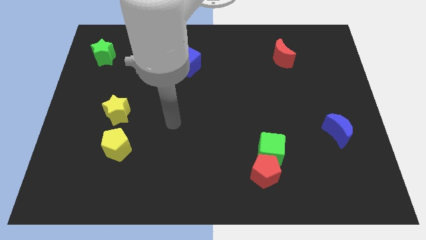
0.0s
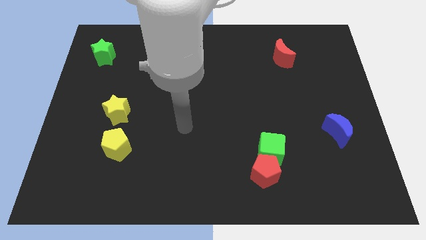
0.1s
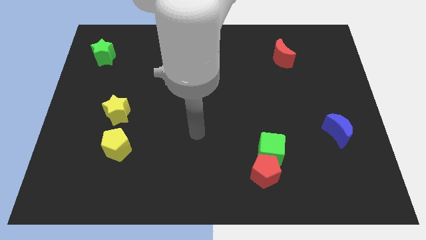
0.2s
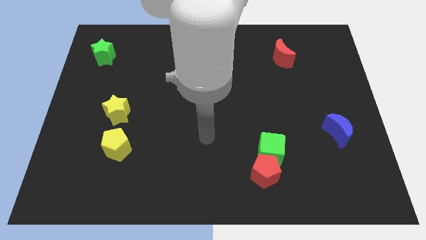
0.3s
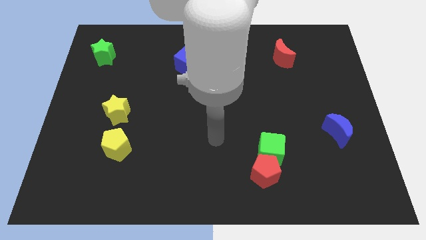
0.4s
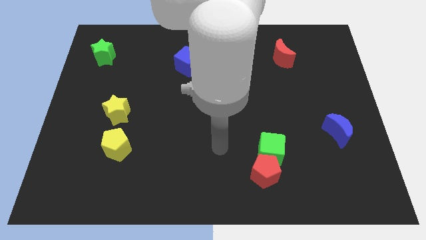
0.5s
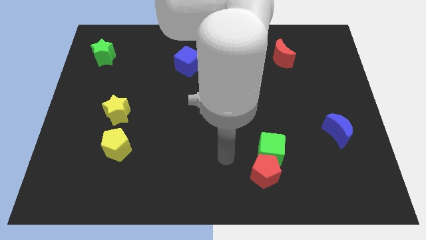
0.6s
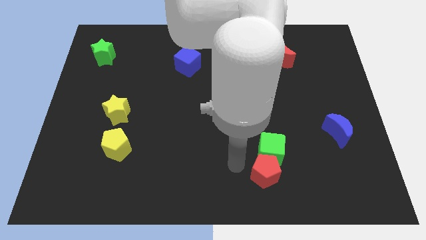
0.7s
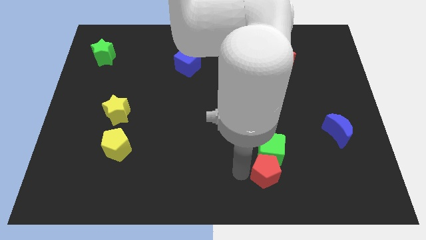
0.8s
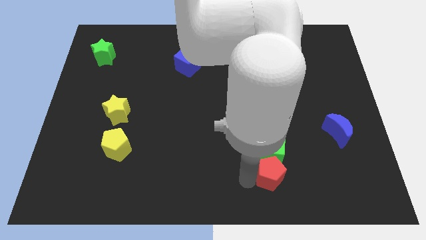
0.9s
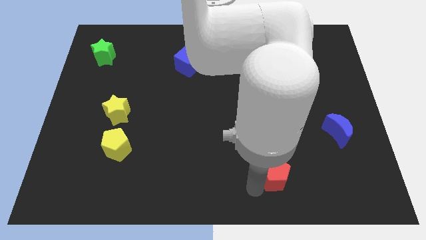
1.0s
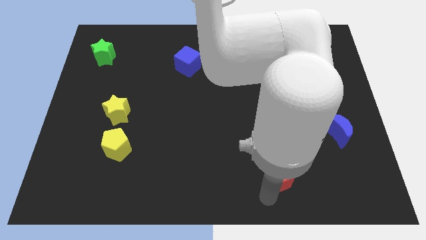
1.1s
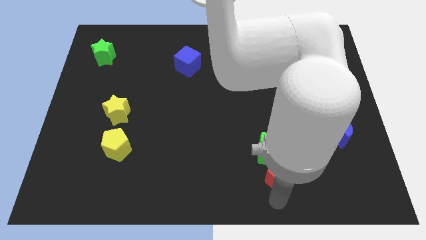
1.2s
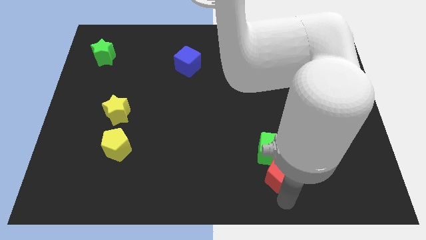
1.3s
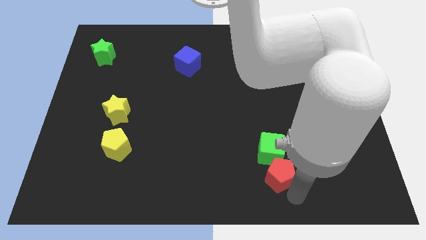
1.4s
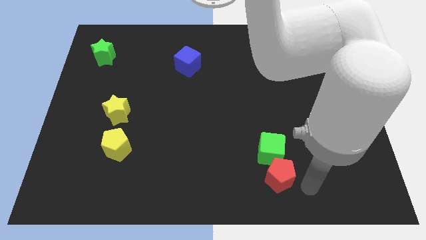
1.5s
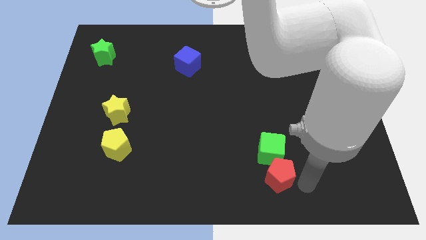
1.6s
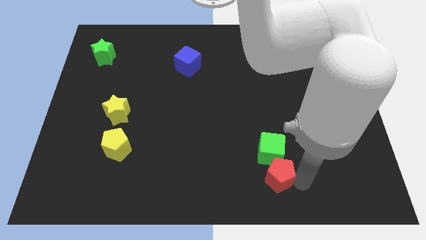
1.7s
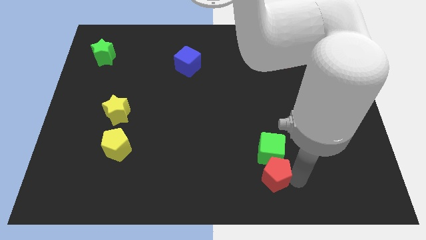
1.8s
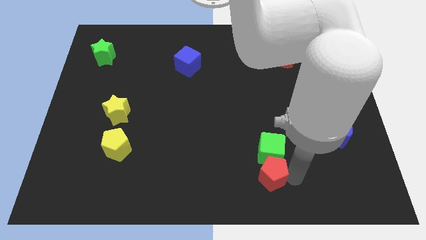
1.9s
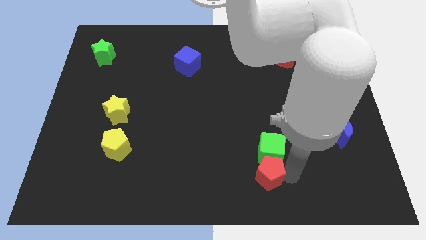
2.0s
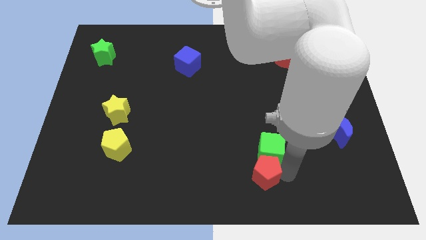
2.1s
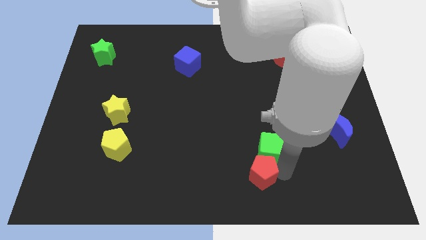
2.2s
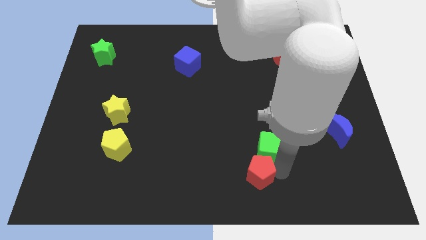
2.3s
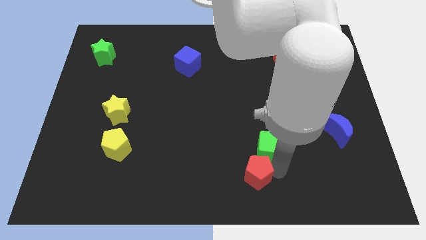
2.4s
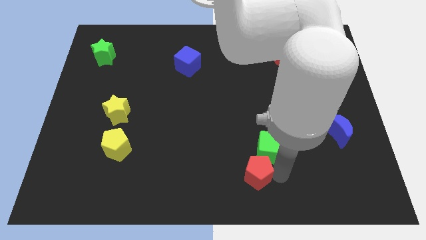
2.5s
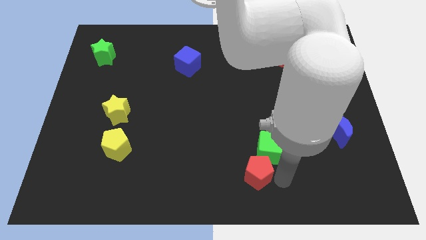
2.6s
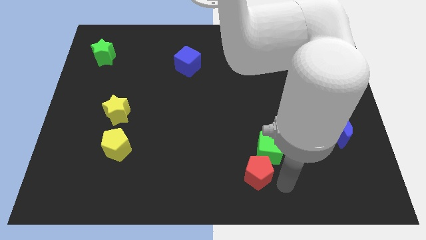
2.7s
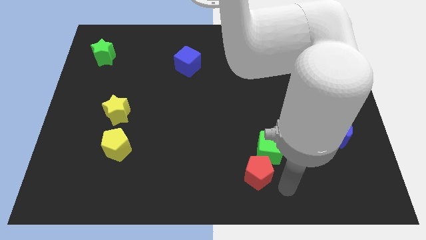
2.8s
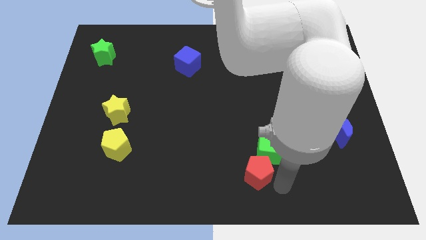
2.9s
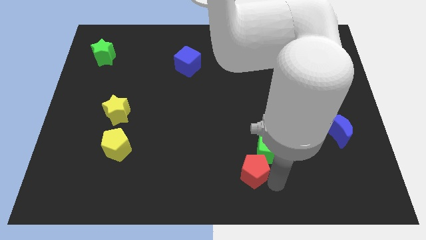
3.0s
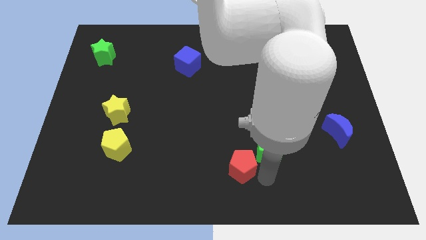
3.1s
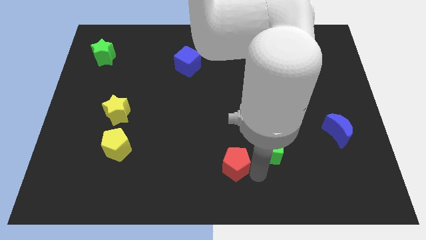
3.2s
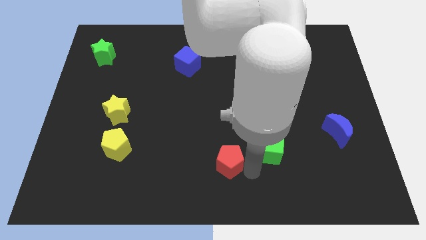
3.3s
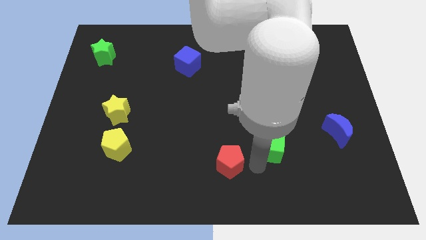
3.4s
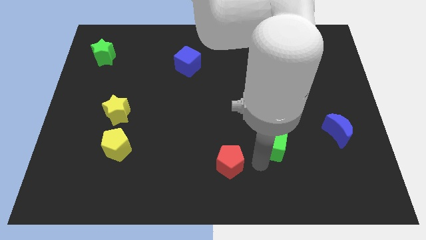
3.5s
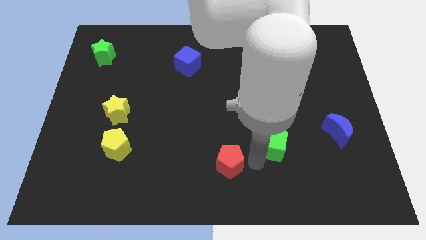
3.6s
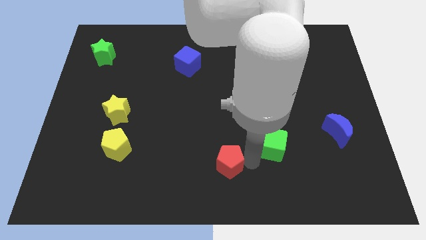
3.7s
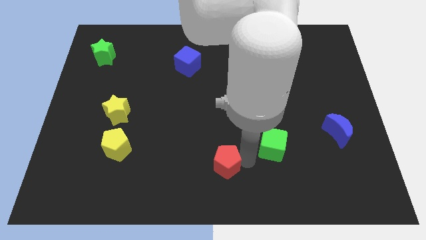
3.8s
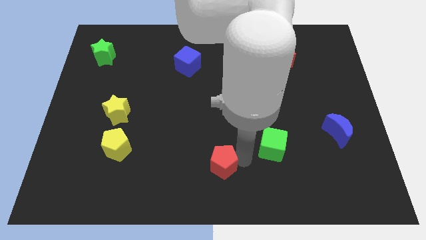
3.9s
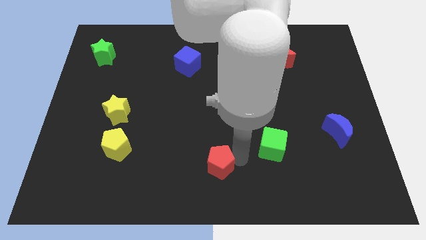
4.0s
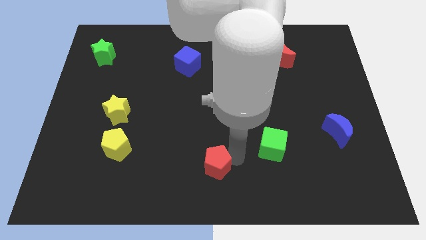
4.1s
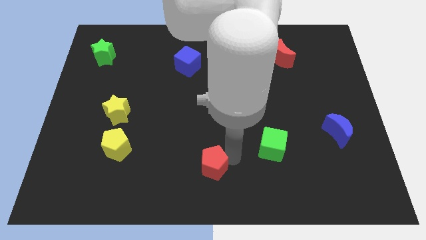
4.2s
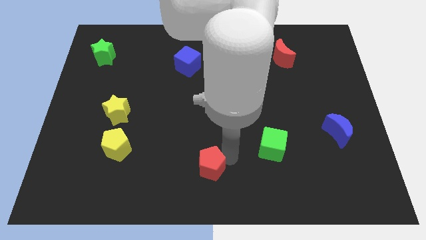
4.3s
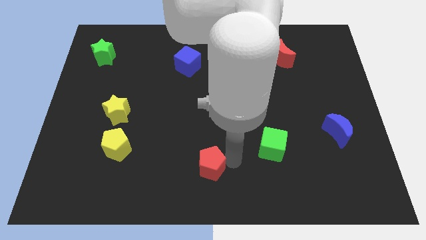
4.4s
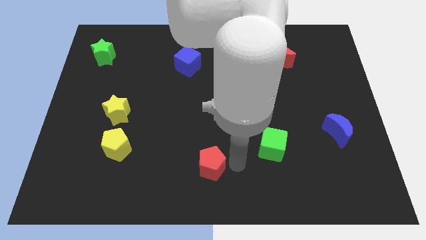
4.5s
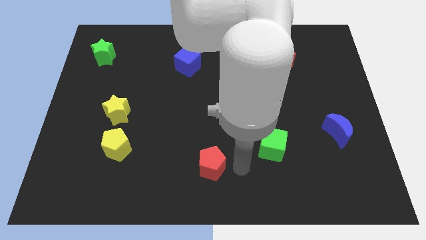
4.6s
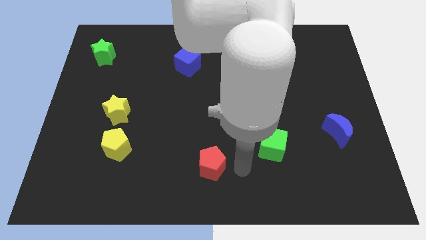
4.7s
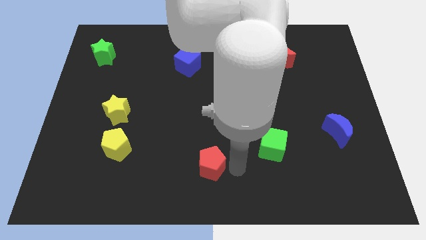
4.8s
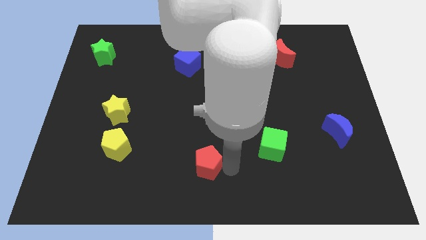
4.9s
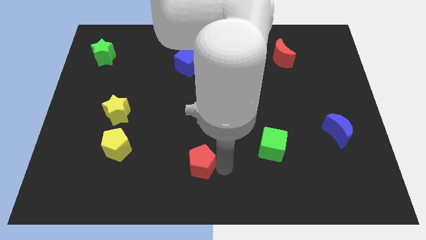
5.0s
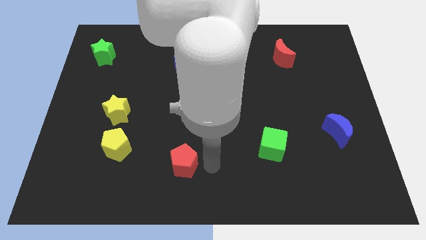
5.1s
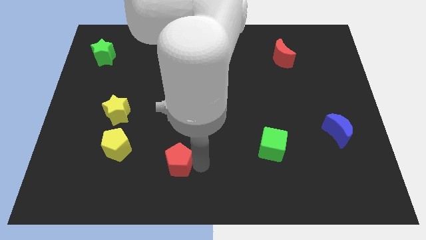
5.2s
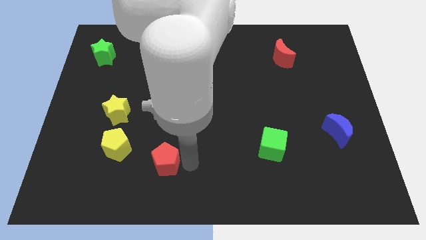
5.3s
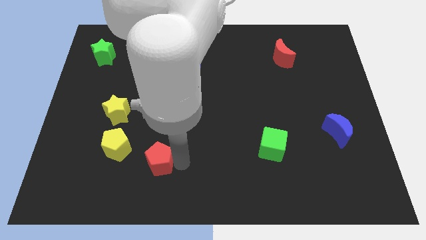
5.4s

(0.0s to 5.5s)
move the red pentagon diagonally down and to the right of the yellow pentagon

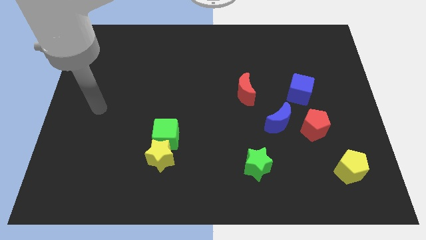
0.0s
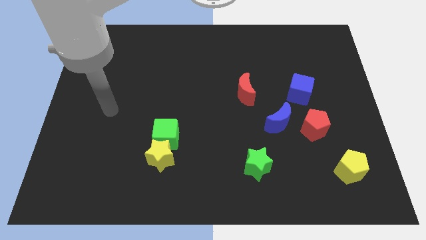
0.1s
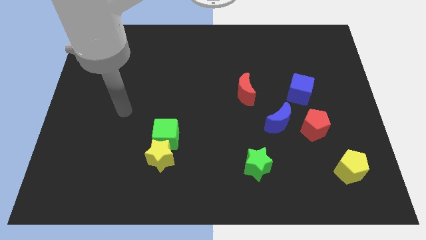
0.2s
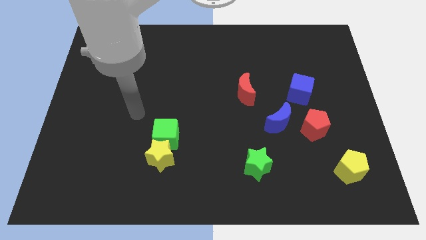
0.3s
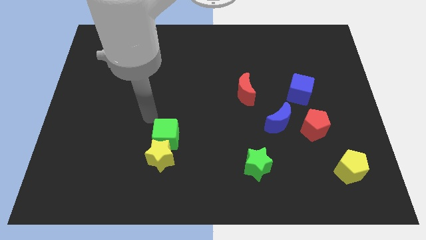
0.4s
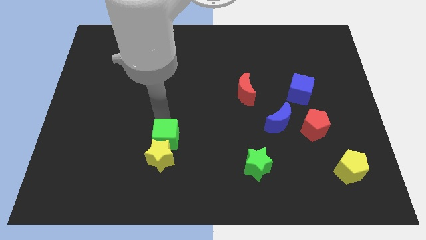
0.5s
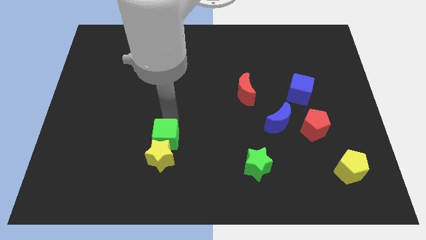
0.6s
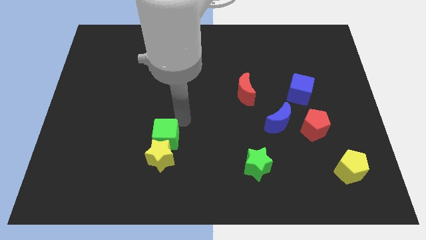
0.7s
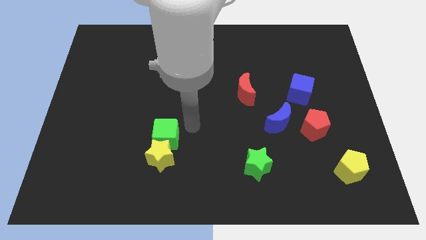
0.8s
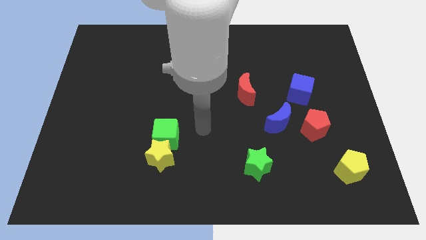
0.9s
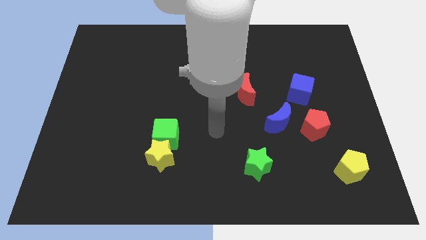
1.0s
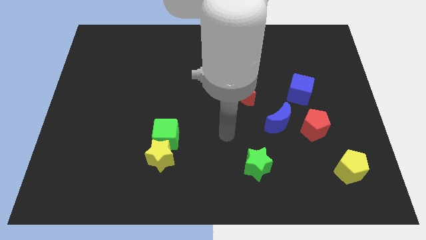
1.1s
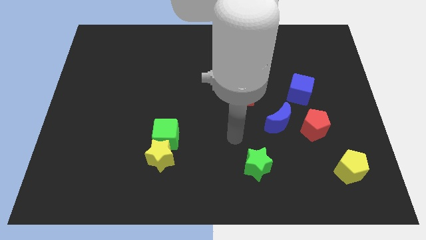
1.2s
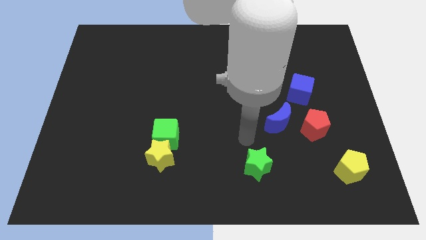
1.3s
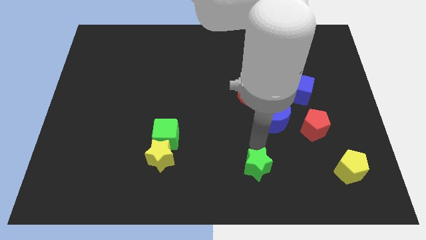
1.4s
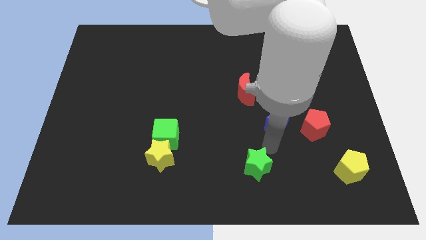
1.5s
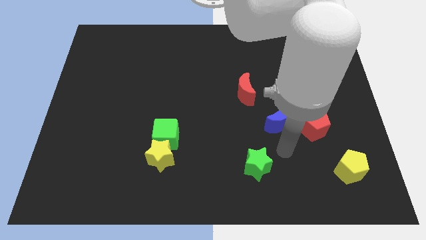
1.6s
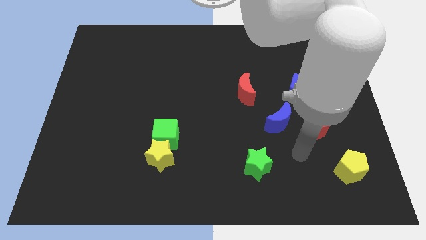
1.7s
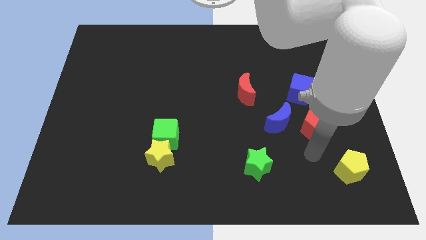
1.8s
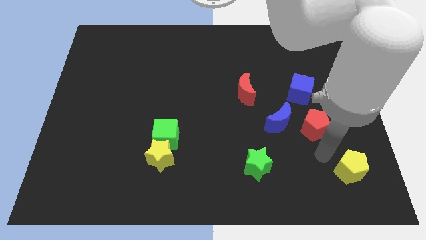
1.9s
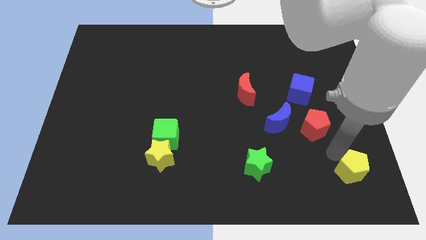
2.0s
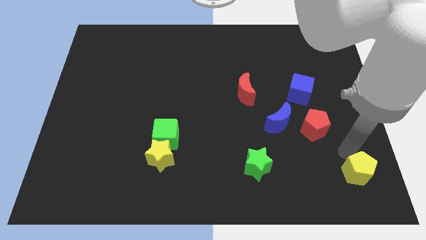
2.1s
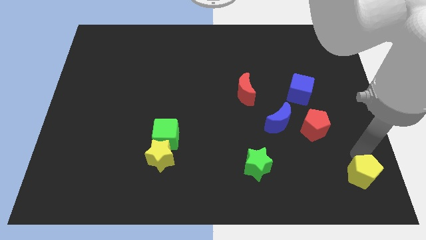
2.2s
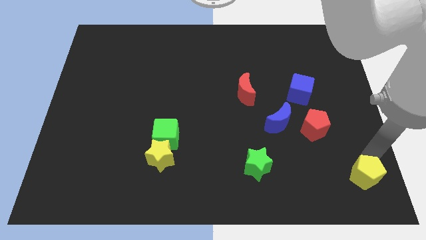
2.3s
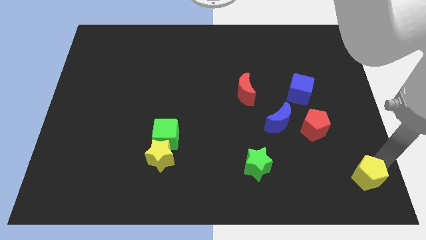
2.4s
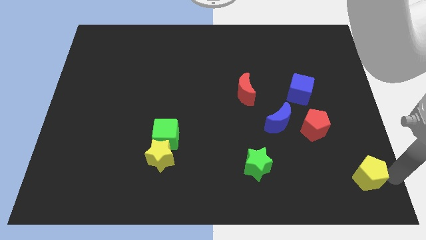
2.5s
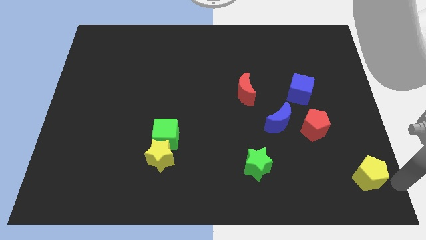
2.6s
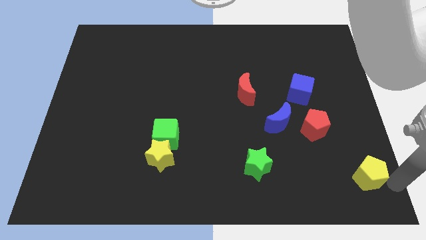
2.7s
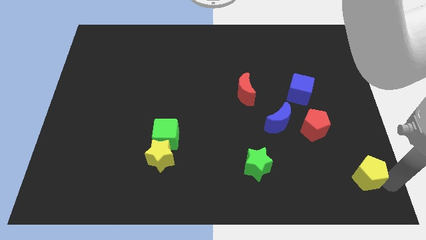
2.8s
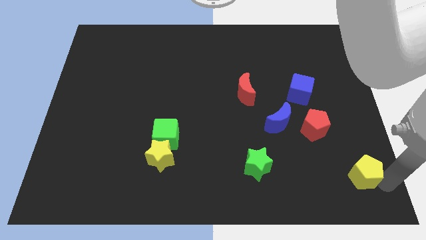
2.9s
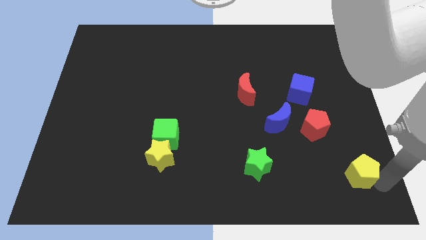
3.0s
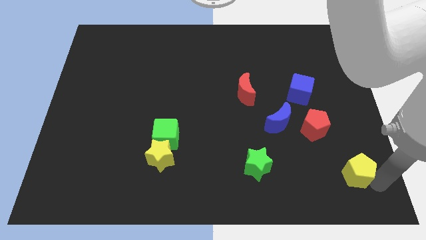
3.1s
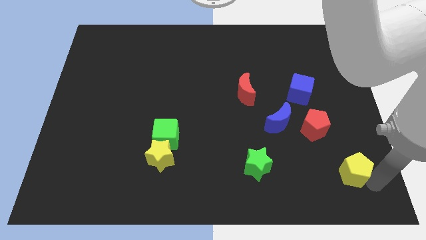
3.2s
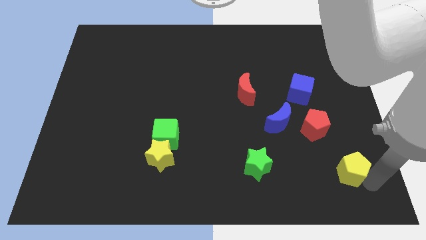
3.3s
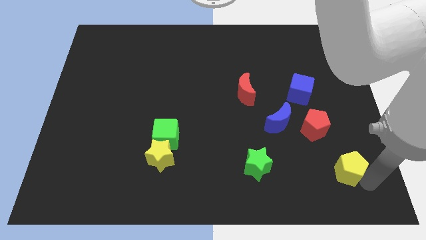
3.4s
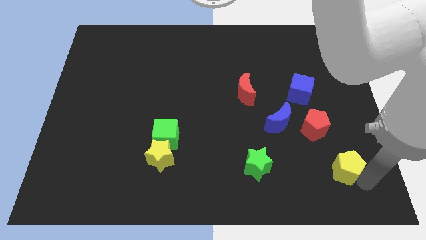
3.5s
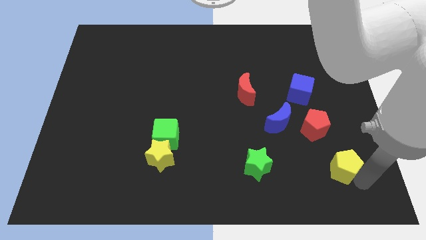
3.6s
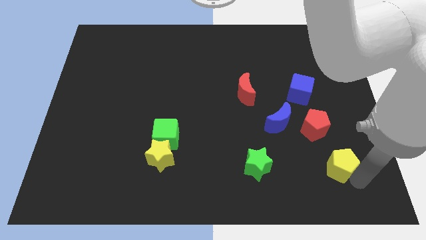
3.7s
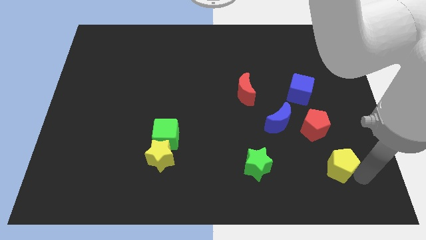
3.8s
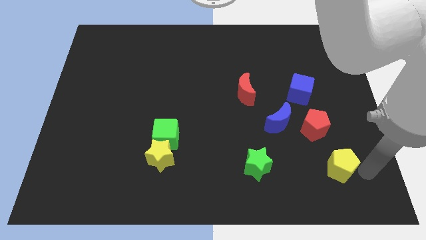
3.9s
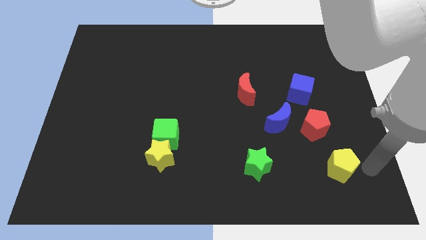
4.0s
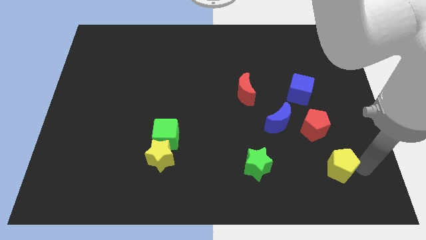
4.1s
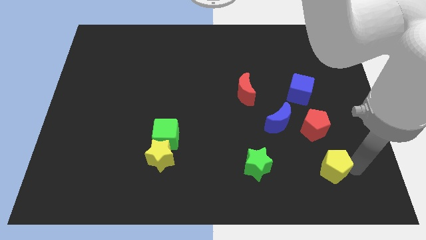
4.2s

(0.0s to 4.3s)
put the yellow pentagon right of the green star
